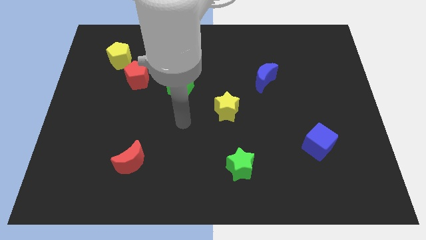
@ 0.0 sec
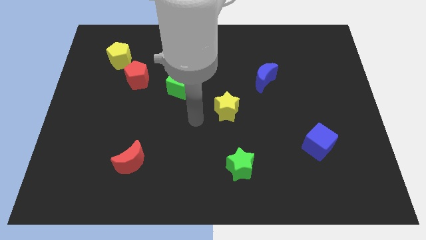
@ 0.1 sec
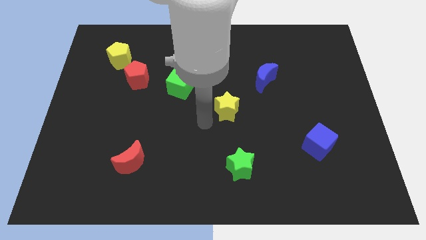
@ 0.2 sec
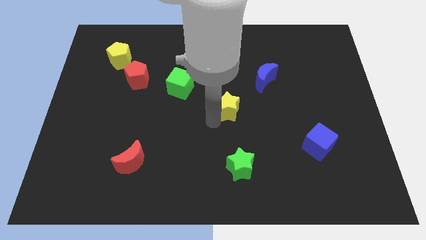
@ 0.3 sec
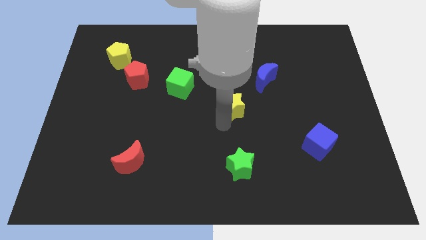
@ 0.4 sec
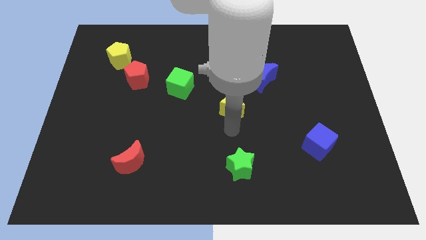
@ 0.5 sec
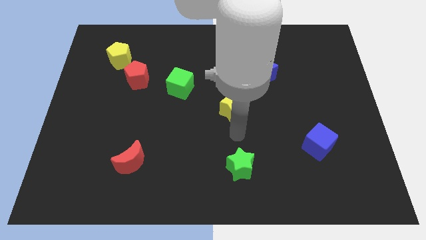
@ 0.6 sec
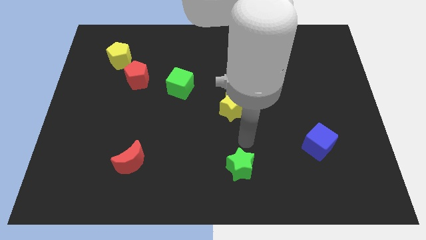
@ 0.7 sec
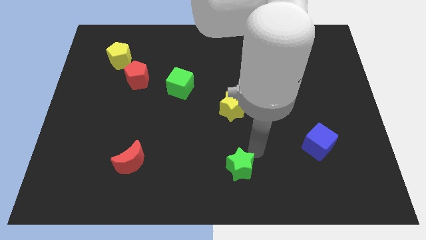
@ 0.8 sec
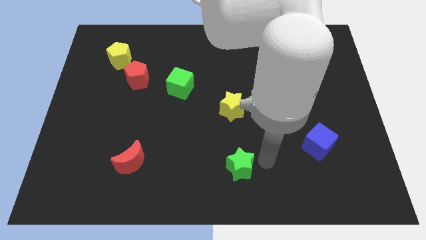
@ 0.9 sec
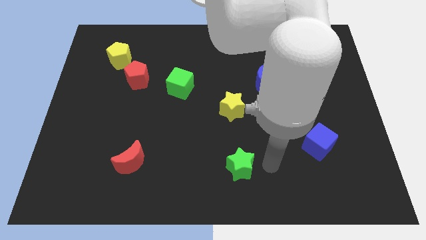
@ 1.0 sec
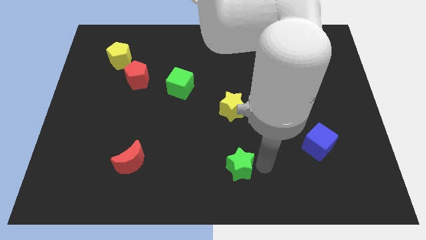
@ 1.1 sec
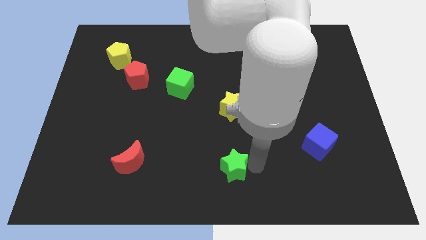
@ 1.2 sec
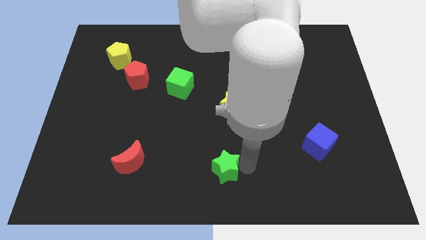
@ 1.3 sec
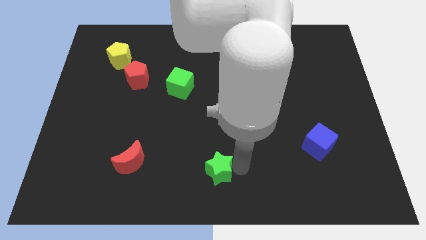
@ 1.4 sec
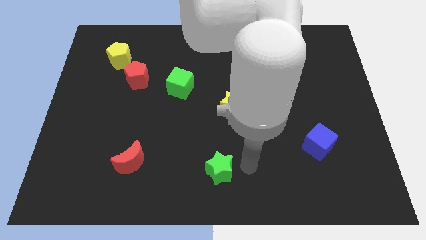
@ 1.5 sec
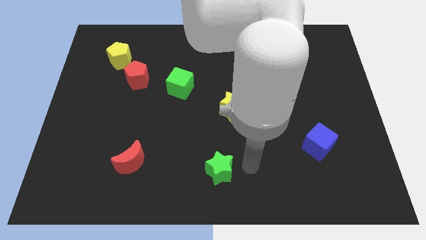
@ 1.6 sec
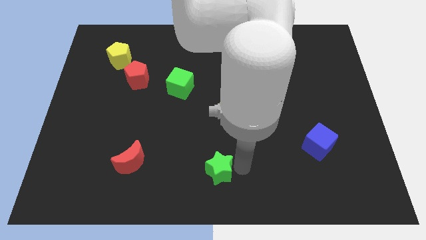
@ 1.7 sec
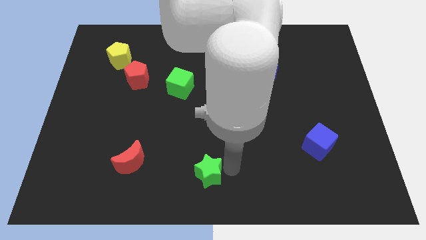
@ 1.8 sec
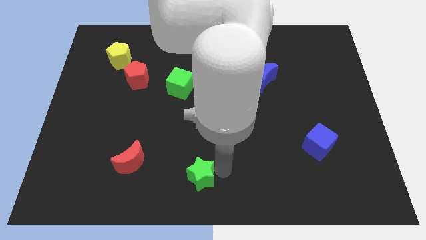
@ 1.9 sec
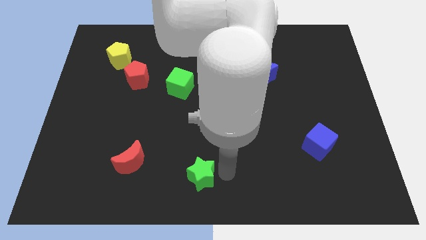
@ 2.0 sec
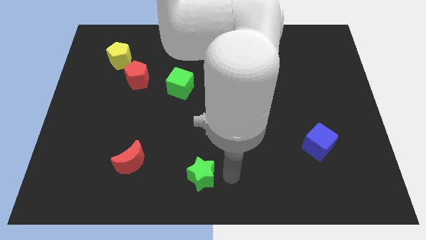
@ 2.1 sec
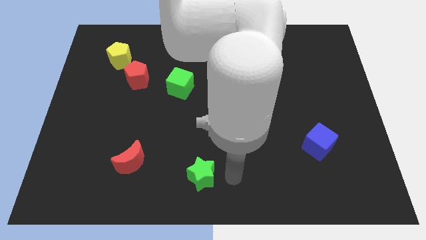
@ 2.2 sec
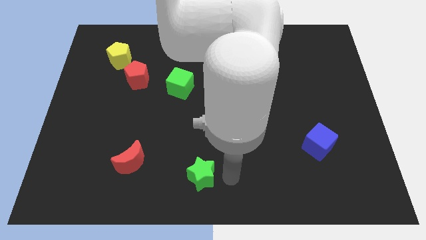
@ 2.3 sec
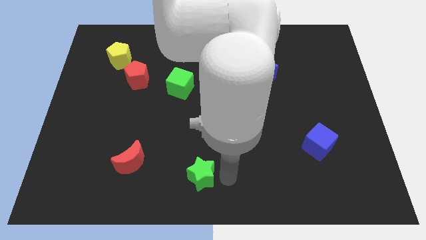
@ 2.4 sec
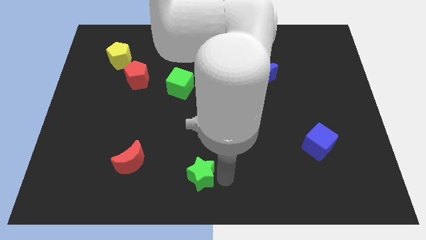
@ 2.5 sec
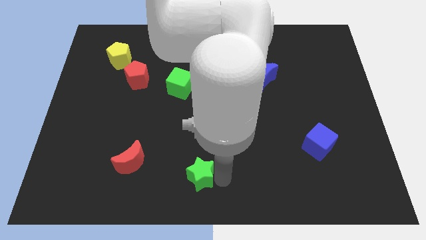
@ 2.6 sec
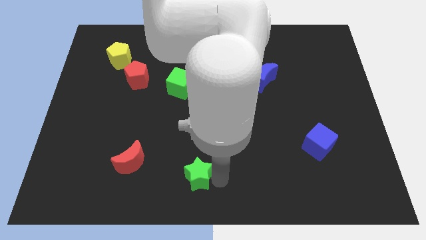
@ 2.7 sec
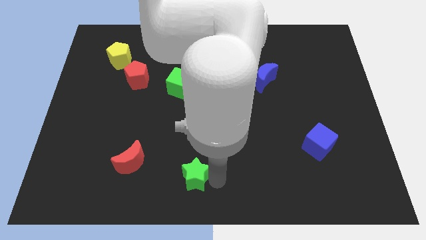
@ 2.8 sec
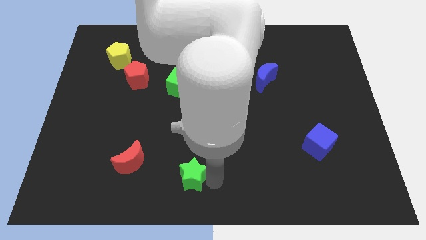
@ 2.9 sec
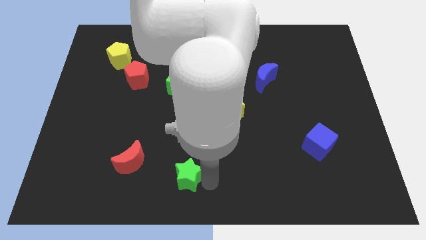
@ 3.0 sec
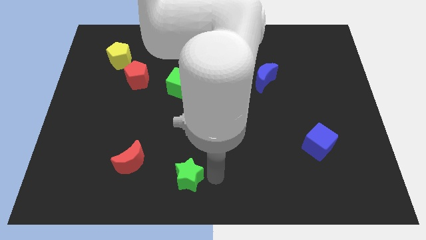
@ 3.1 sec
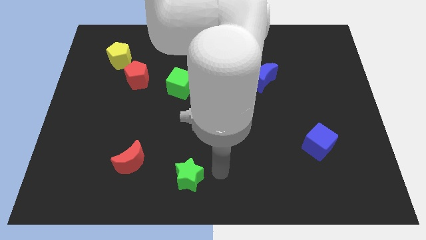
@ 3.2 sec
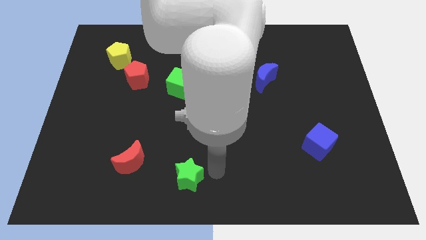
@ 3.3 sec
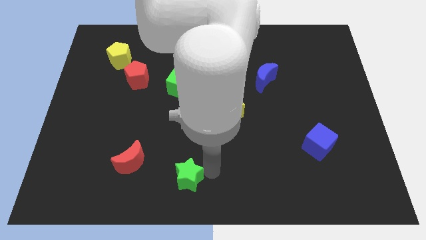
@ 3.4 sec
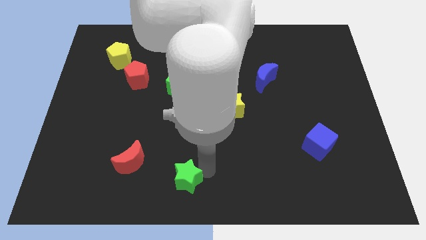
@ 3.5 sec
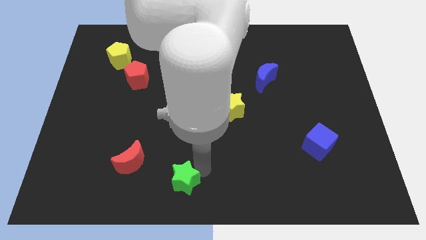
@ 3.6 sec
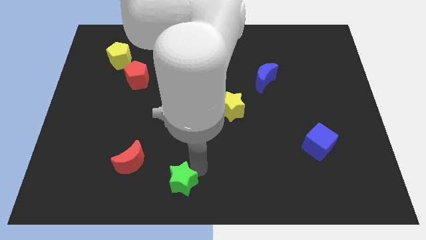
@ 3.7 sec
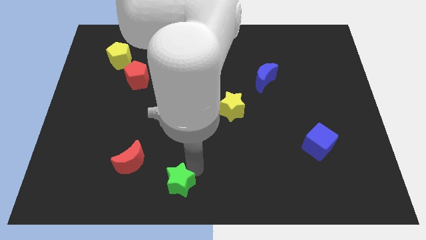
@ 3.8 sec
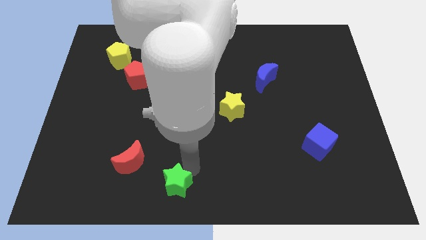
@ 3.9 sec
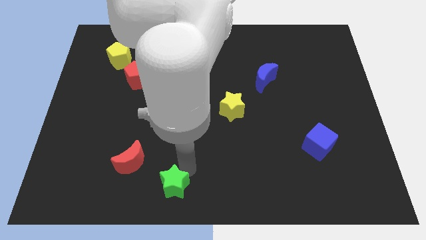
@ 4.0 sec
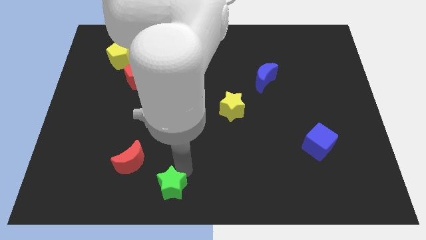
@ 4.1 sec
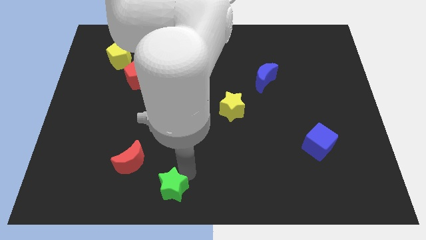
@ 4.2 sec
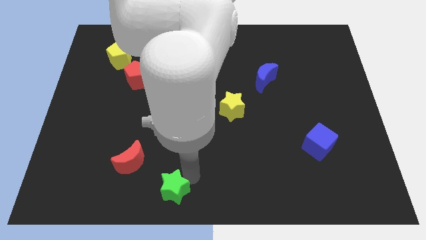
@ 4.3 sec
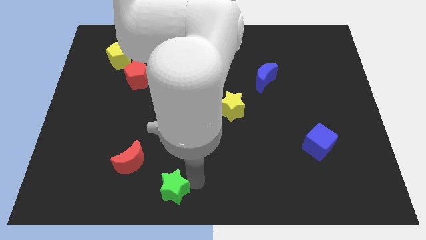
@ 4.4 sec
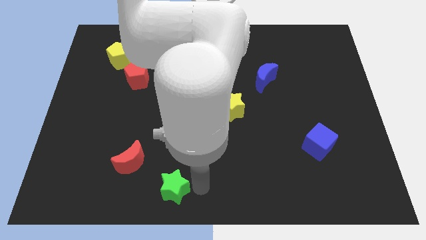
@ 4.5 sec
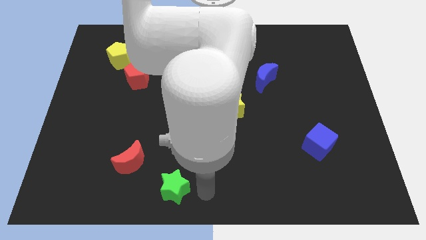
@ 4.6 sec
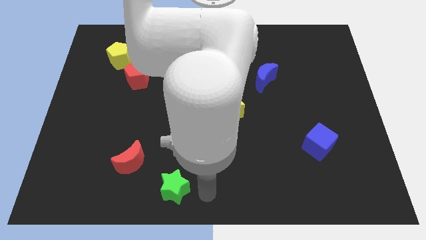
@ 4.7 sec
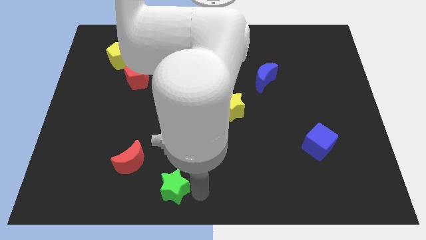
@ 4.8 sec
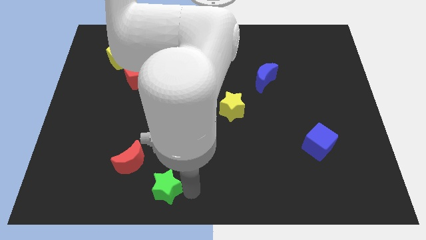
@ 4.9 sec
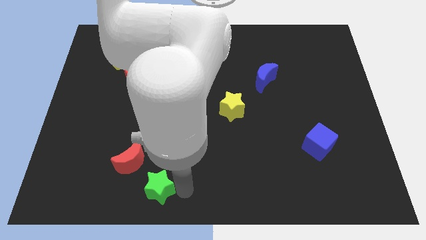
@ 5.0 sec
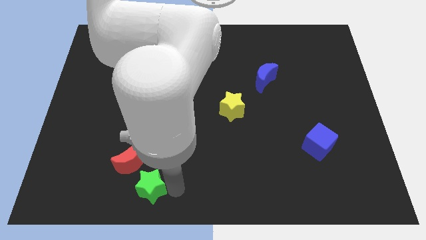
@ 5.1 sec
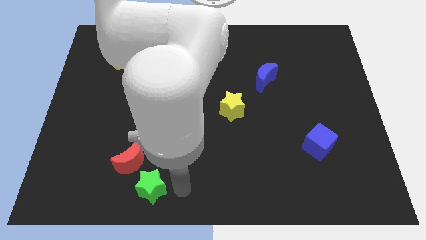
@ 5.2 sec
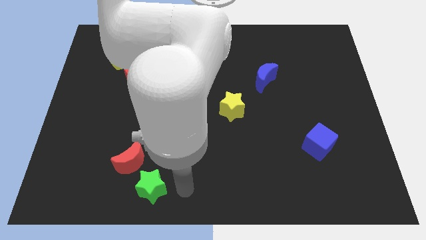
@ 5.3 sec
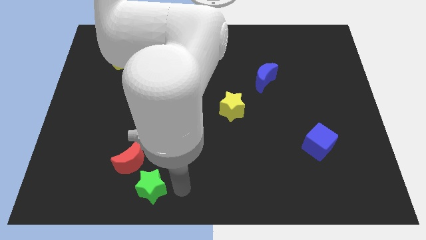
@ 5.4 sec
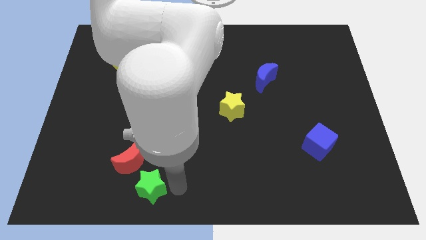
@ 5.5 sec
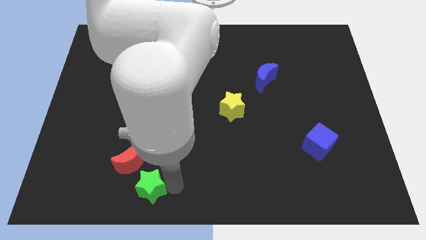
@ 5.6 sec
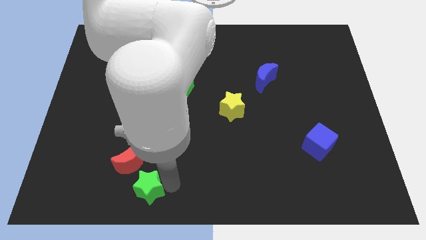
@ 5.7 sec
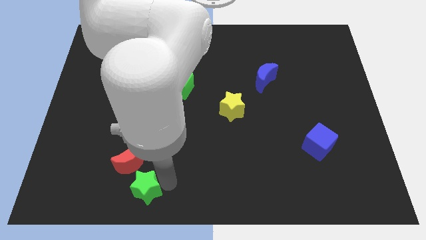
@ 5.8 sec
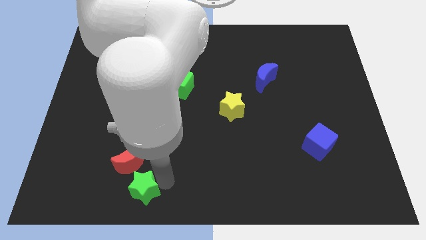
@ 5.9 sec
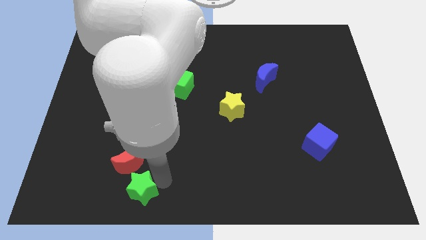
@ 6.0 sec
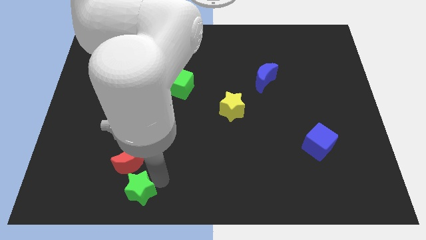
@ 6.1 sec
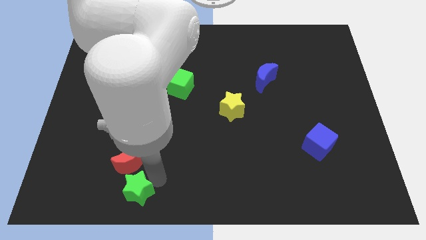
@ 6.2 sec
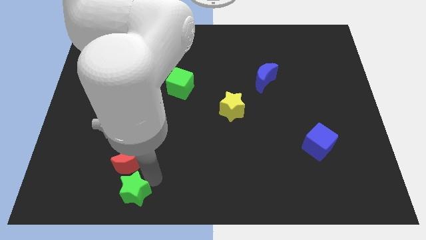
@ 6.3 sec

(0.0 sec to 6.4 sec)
slide the green star to the left

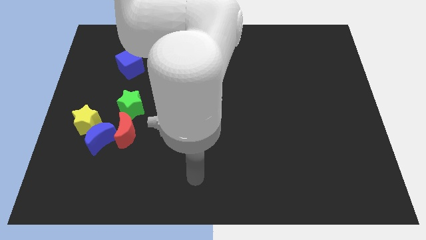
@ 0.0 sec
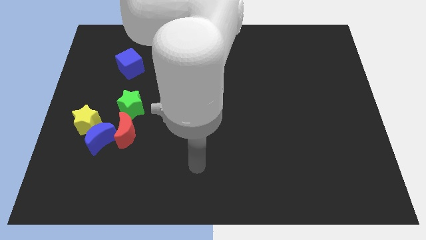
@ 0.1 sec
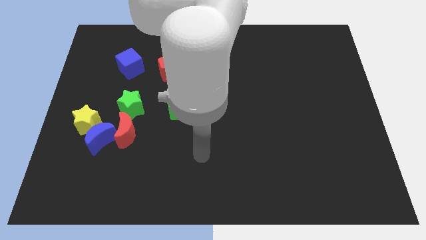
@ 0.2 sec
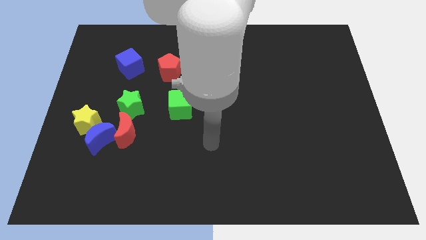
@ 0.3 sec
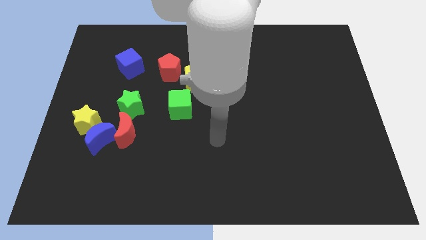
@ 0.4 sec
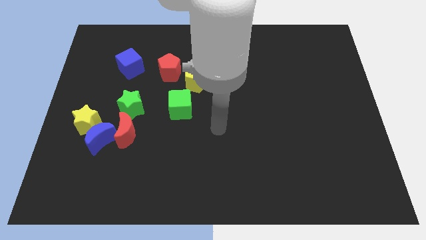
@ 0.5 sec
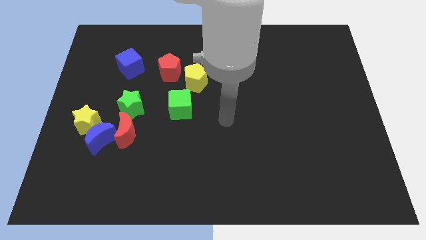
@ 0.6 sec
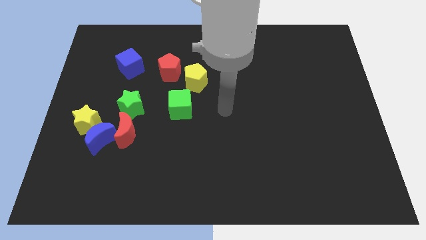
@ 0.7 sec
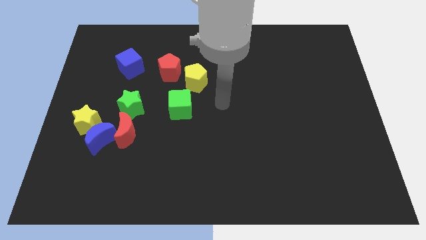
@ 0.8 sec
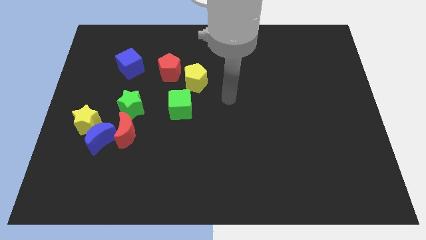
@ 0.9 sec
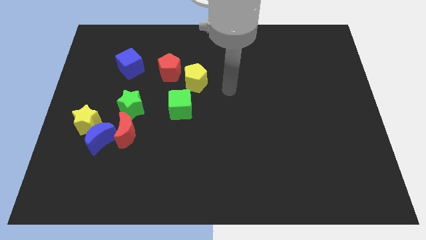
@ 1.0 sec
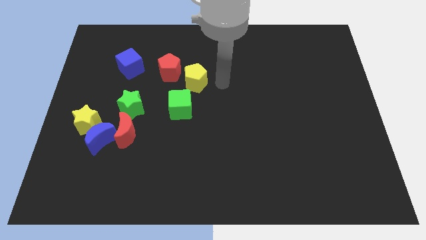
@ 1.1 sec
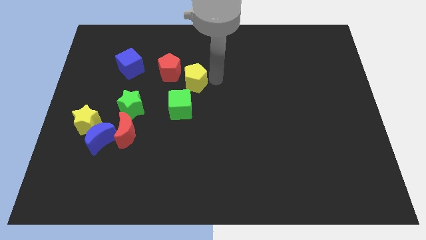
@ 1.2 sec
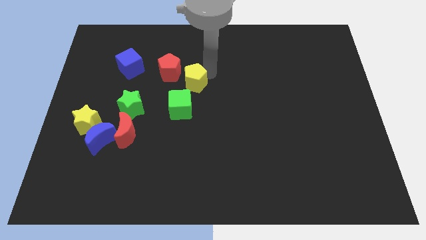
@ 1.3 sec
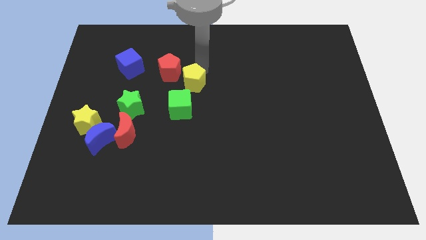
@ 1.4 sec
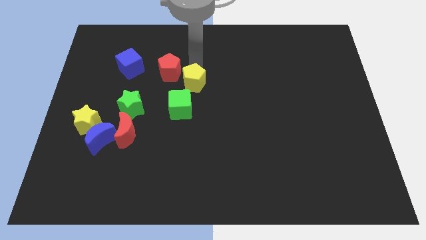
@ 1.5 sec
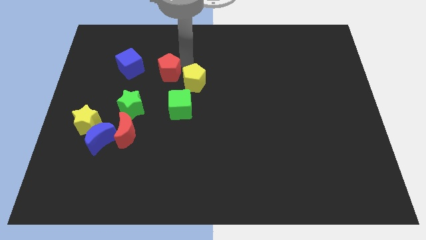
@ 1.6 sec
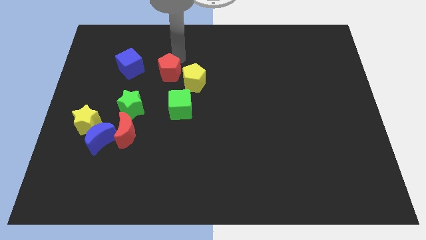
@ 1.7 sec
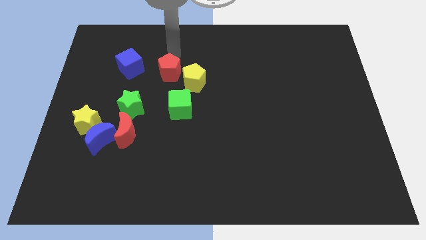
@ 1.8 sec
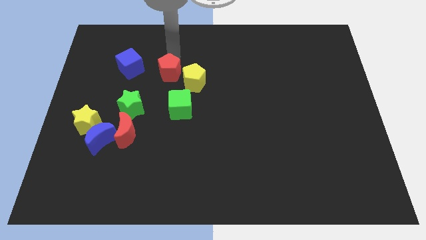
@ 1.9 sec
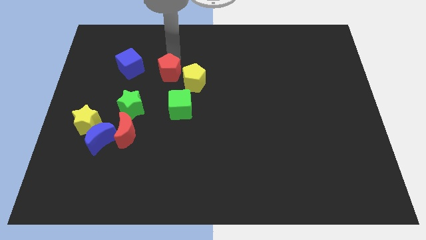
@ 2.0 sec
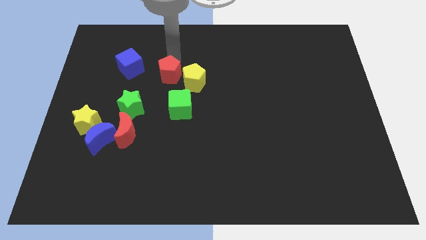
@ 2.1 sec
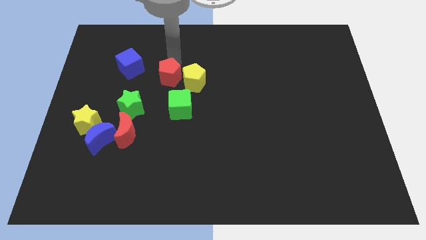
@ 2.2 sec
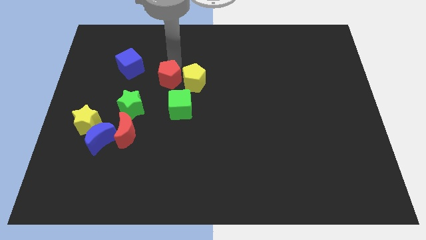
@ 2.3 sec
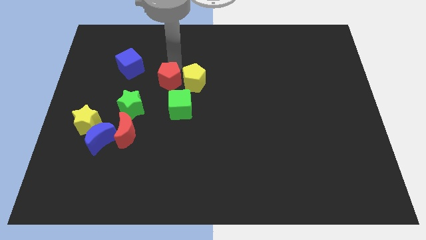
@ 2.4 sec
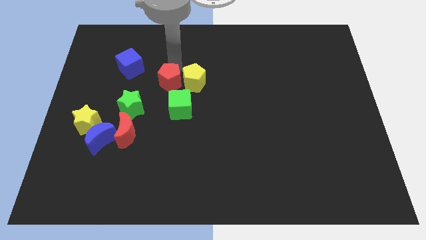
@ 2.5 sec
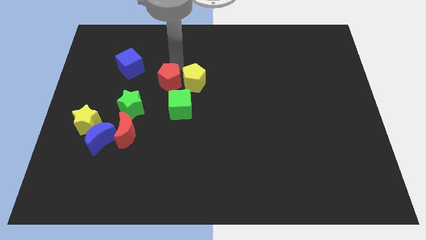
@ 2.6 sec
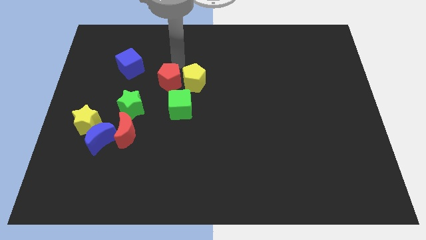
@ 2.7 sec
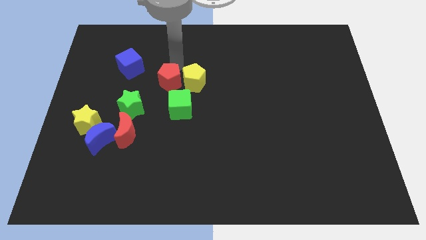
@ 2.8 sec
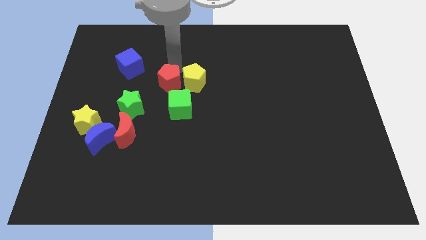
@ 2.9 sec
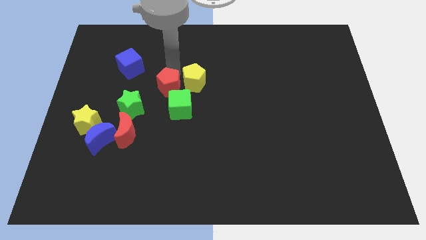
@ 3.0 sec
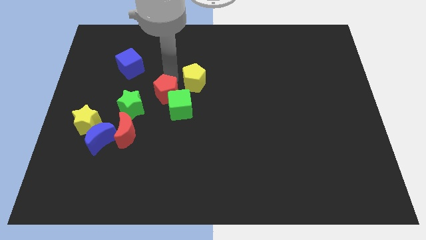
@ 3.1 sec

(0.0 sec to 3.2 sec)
slightly slide the red pentagon downwards
